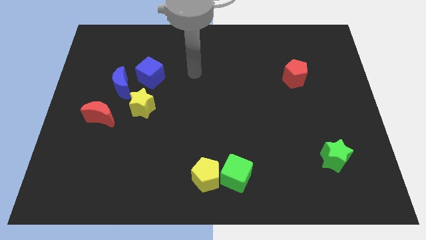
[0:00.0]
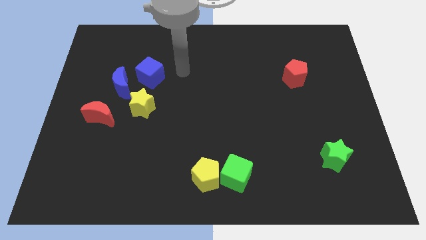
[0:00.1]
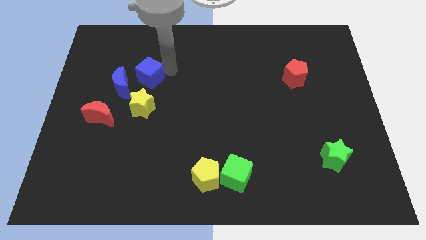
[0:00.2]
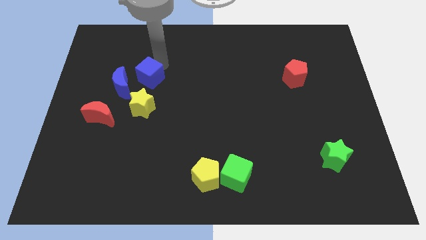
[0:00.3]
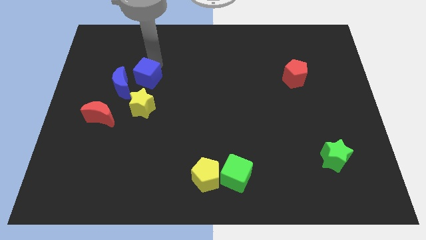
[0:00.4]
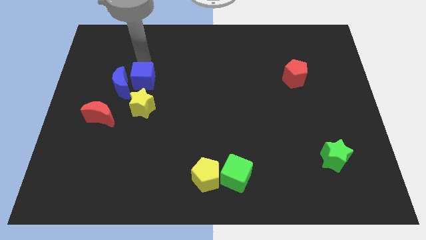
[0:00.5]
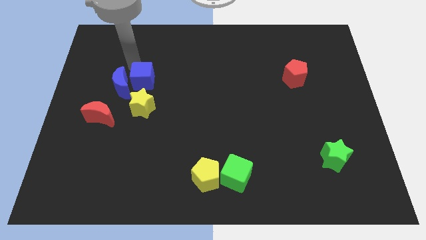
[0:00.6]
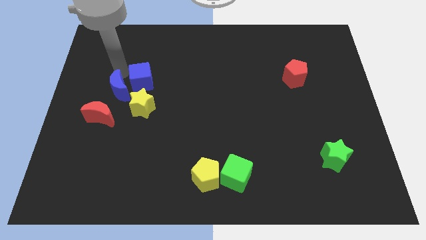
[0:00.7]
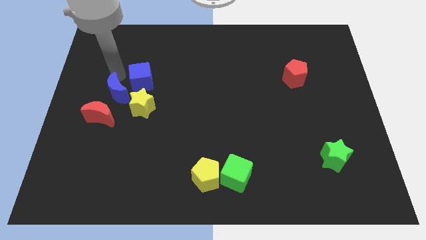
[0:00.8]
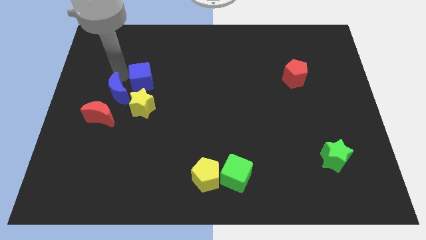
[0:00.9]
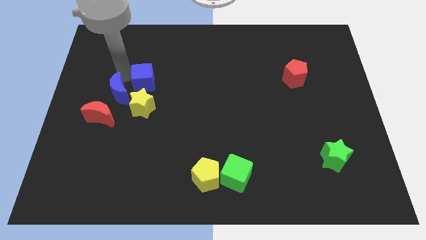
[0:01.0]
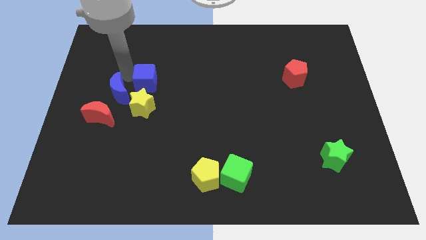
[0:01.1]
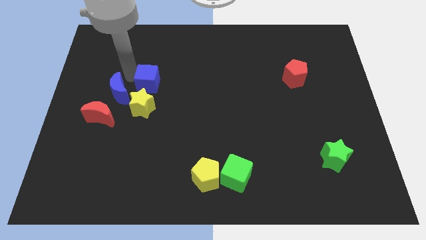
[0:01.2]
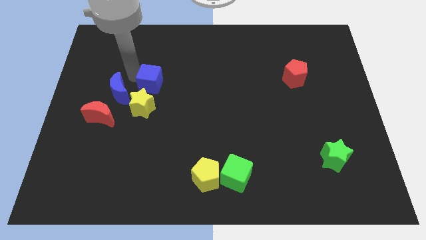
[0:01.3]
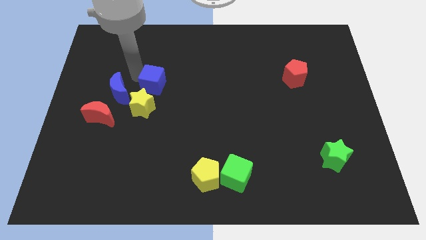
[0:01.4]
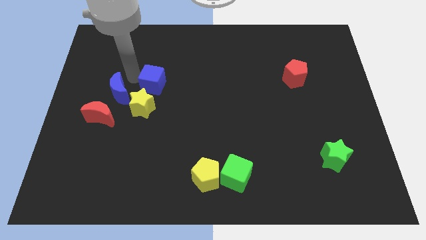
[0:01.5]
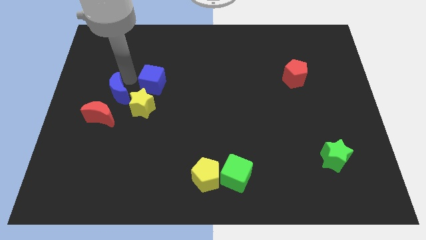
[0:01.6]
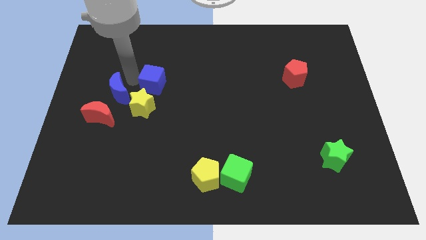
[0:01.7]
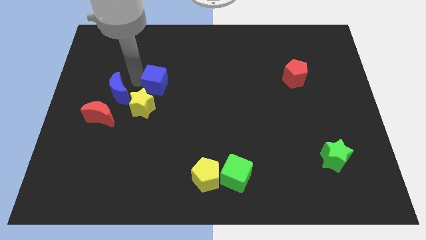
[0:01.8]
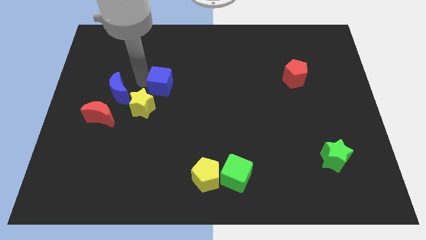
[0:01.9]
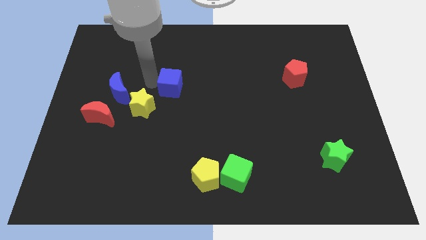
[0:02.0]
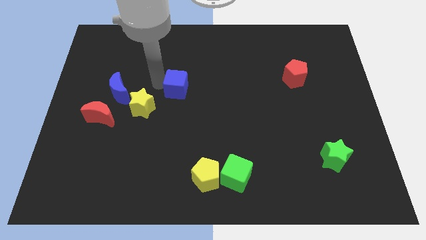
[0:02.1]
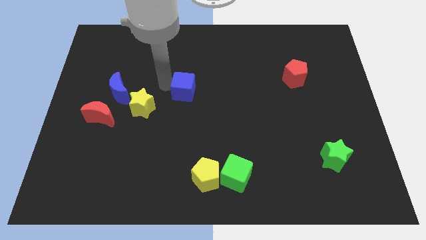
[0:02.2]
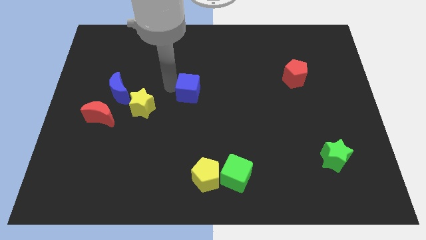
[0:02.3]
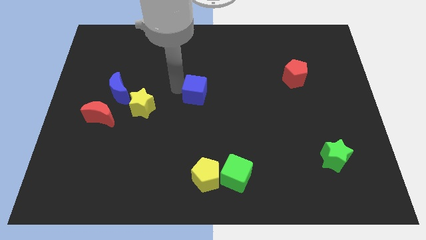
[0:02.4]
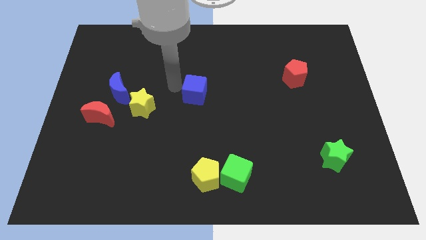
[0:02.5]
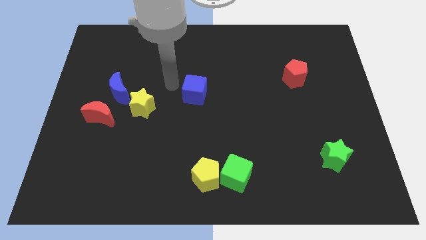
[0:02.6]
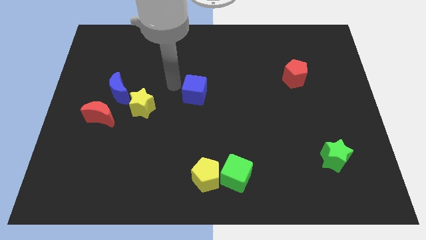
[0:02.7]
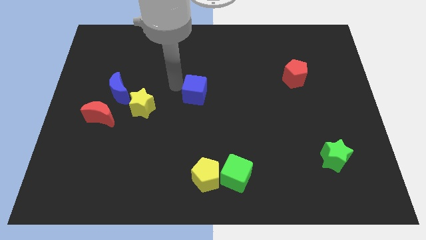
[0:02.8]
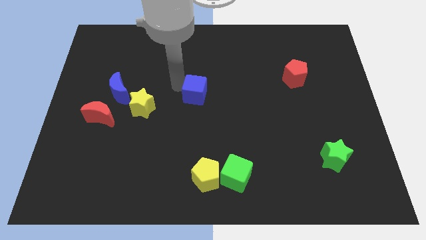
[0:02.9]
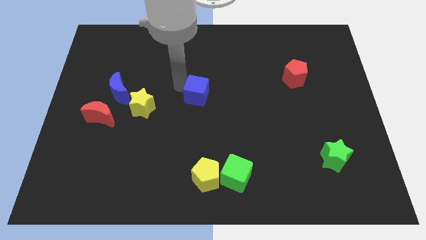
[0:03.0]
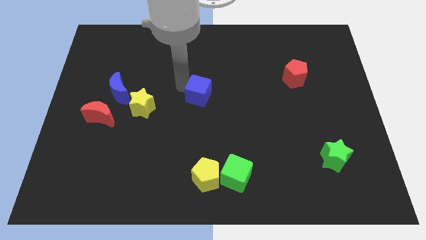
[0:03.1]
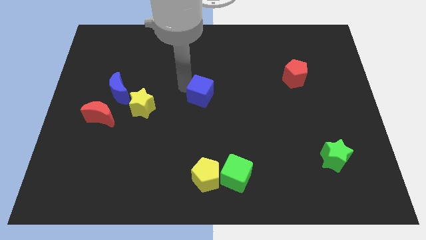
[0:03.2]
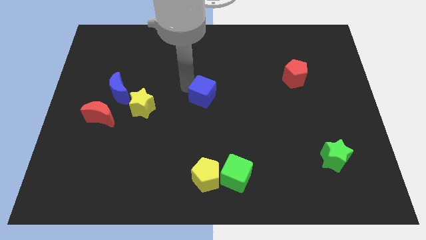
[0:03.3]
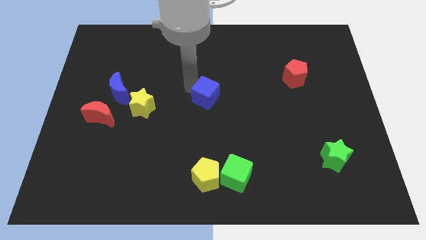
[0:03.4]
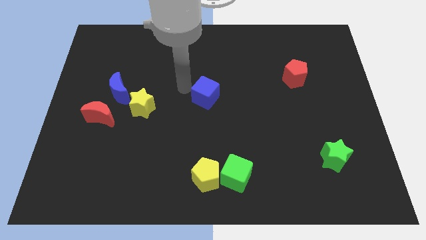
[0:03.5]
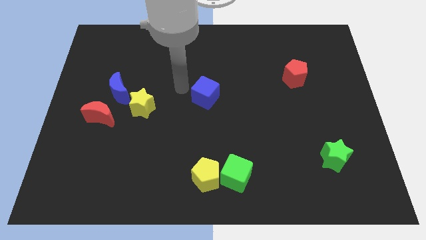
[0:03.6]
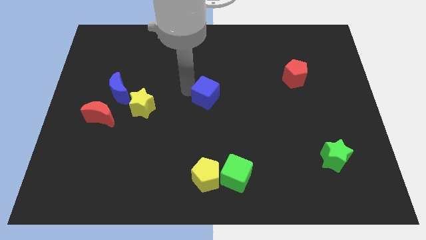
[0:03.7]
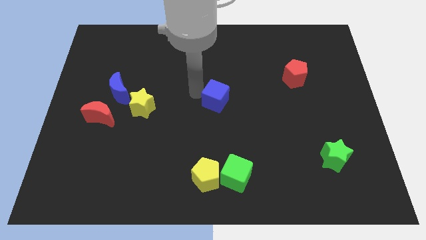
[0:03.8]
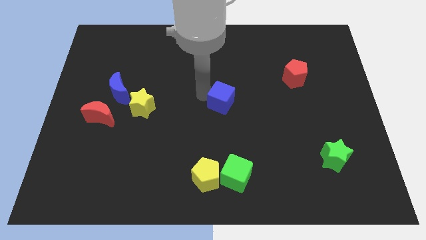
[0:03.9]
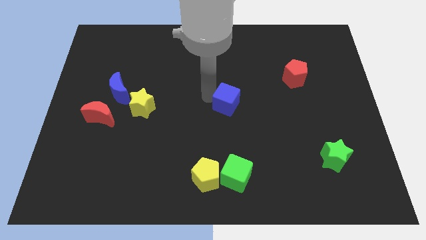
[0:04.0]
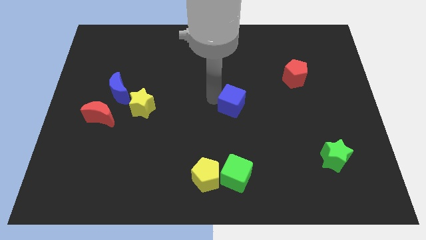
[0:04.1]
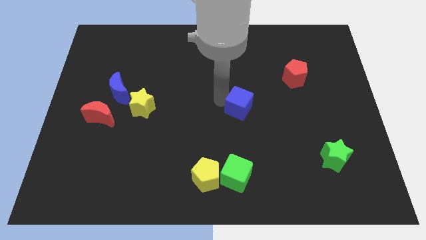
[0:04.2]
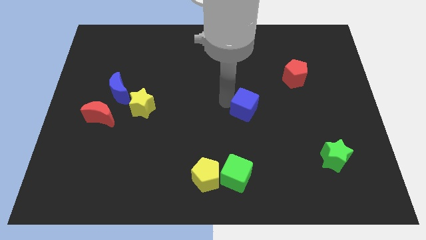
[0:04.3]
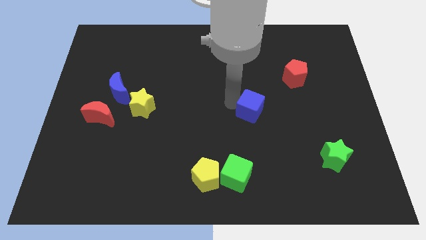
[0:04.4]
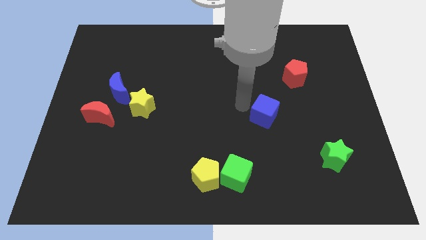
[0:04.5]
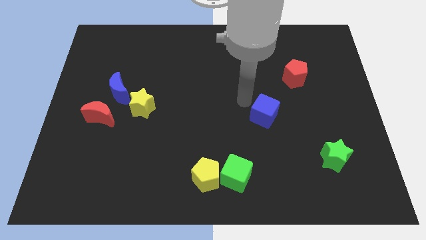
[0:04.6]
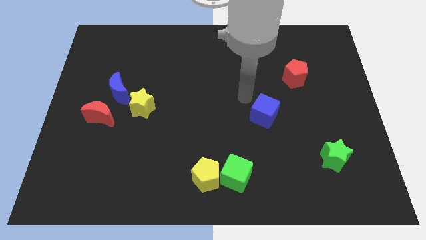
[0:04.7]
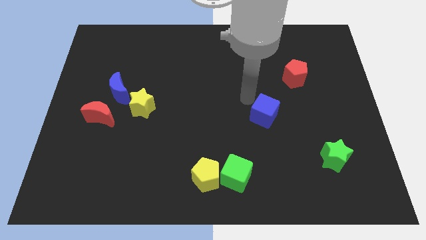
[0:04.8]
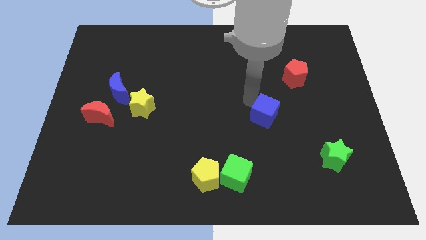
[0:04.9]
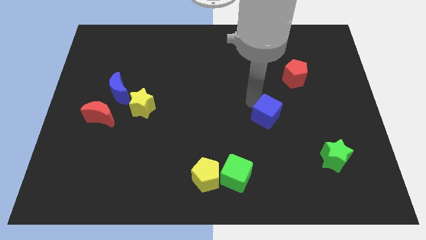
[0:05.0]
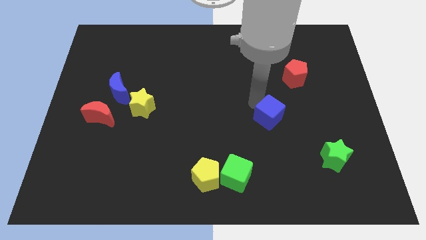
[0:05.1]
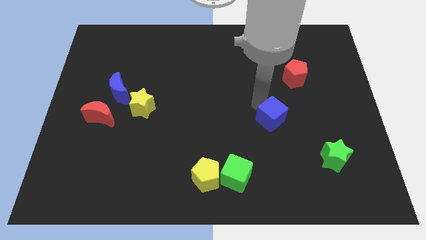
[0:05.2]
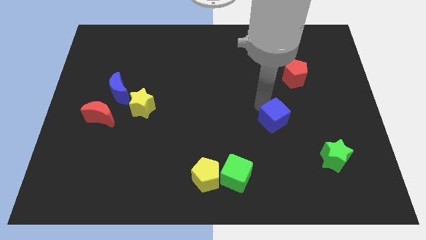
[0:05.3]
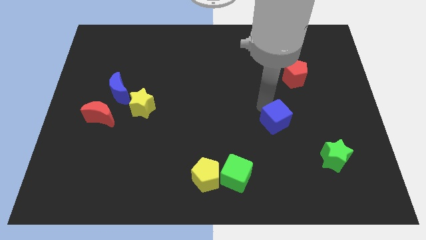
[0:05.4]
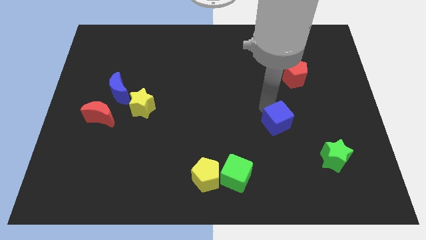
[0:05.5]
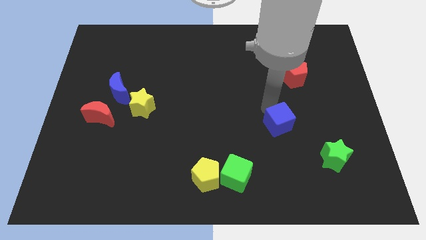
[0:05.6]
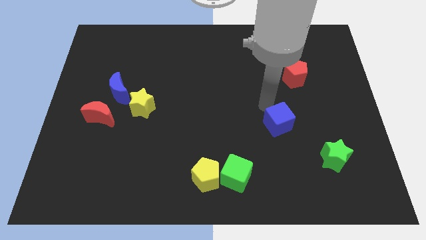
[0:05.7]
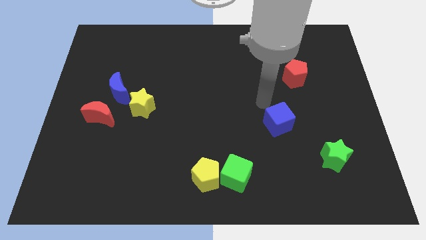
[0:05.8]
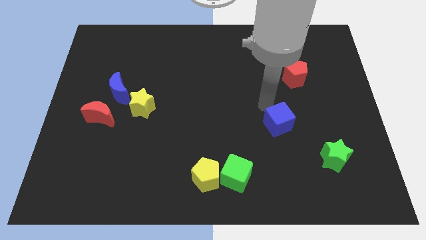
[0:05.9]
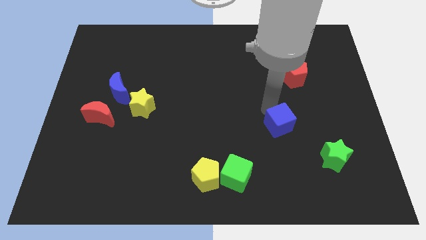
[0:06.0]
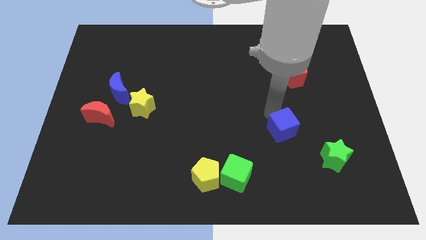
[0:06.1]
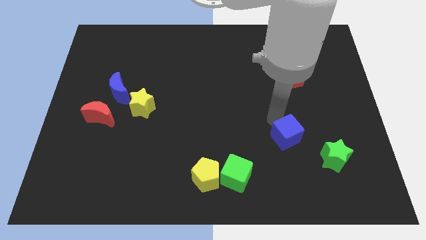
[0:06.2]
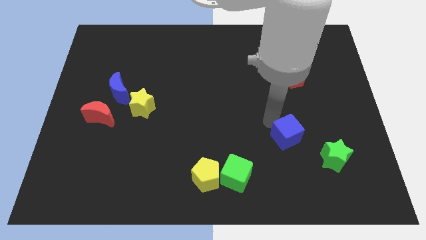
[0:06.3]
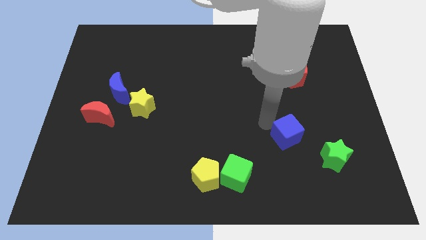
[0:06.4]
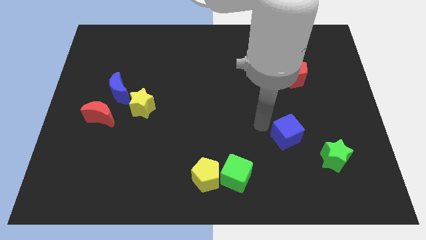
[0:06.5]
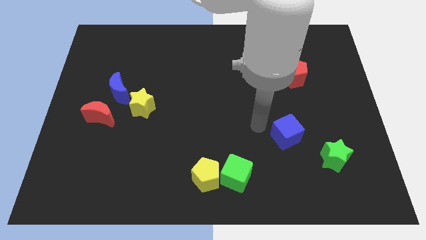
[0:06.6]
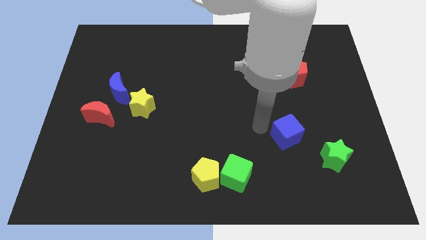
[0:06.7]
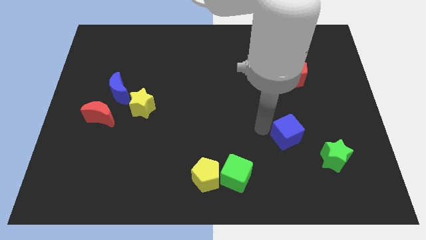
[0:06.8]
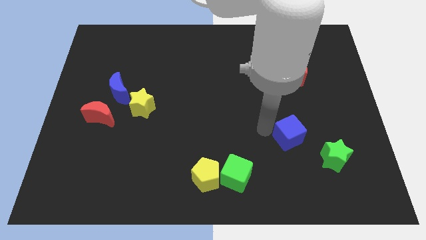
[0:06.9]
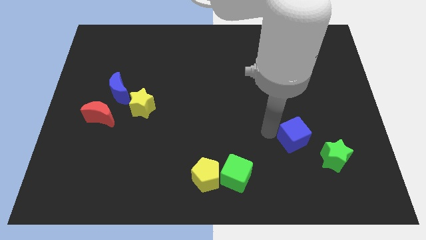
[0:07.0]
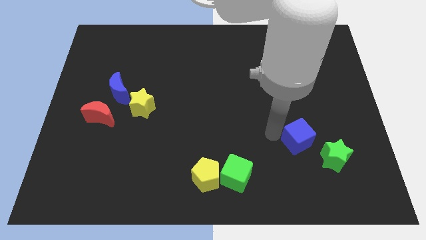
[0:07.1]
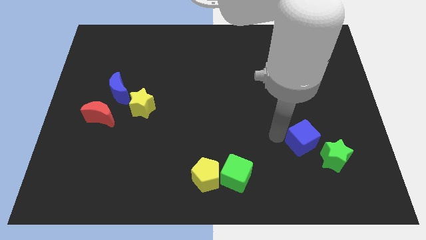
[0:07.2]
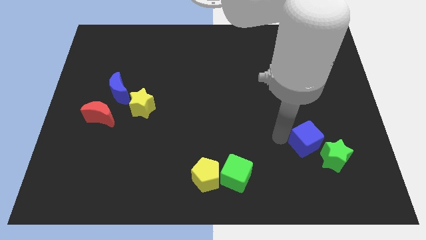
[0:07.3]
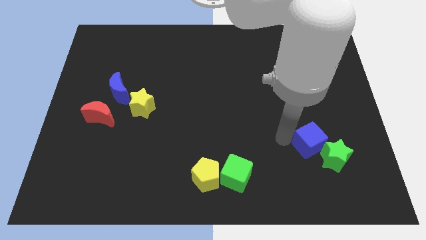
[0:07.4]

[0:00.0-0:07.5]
put the blue cube next to the green star
